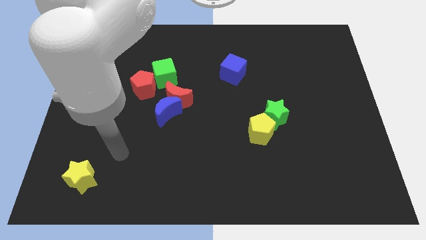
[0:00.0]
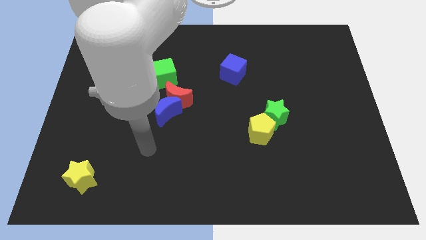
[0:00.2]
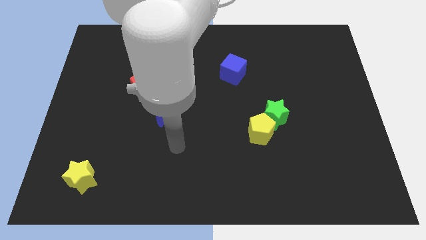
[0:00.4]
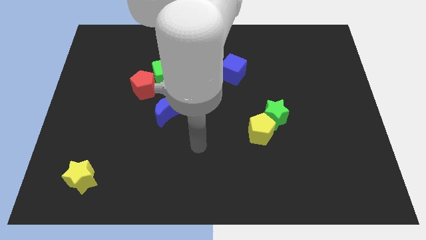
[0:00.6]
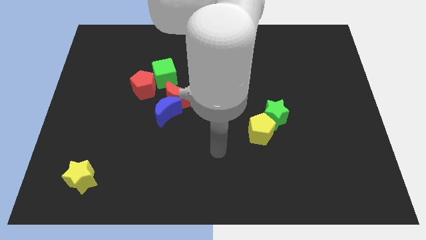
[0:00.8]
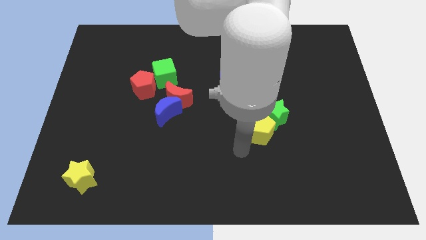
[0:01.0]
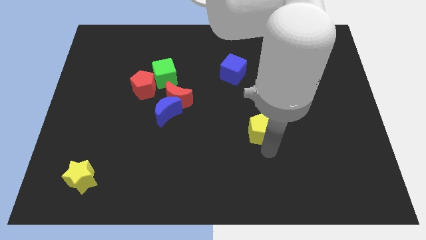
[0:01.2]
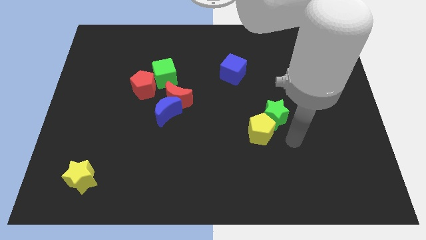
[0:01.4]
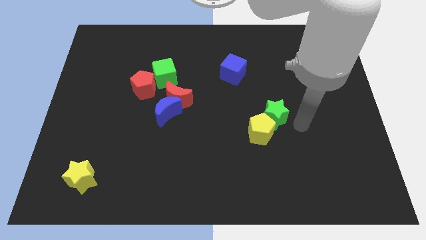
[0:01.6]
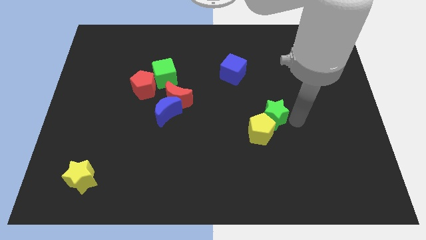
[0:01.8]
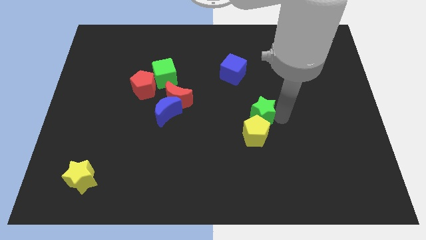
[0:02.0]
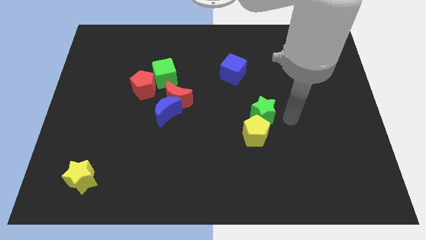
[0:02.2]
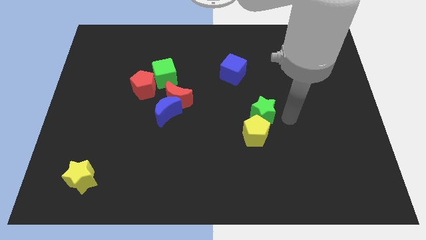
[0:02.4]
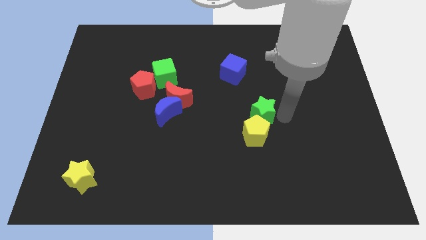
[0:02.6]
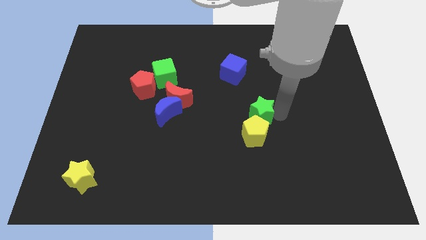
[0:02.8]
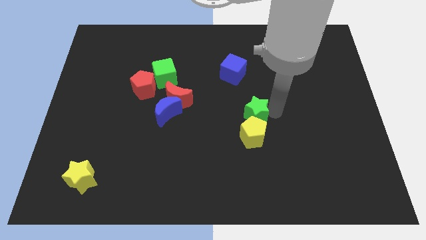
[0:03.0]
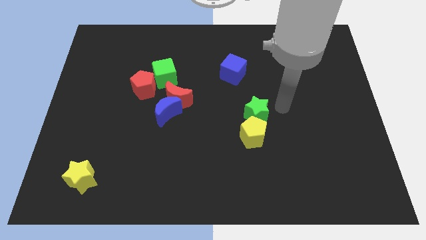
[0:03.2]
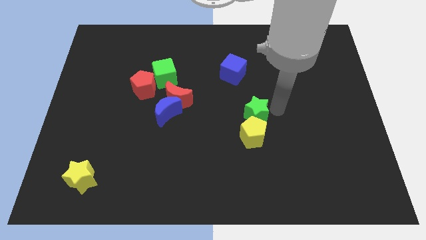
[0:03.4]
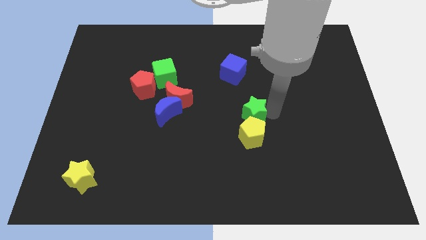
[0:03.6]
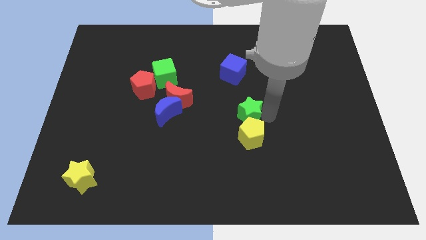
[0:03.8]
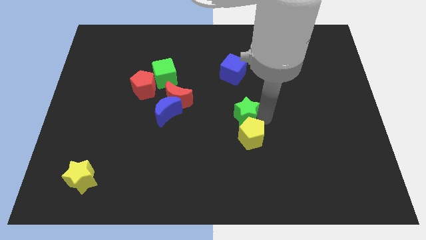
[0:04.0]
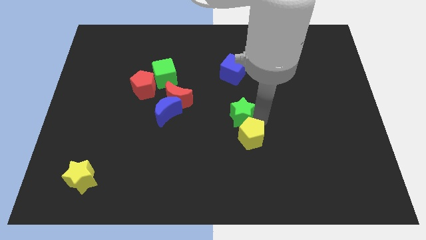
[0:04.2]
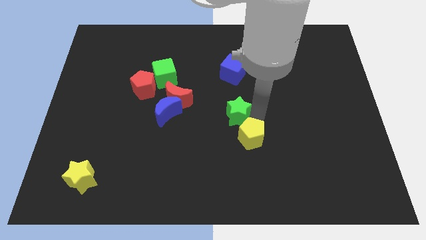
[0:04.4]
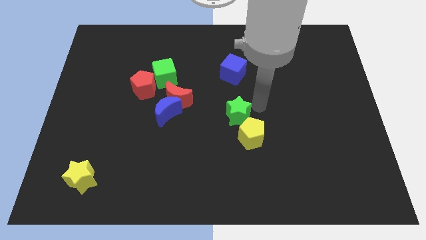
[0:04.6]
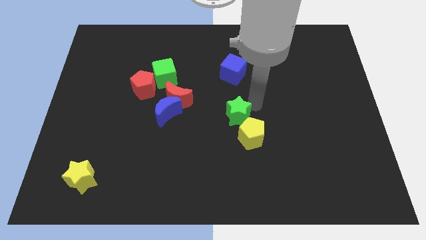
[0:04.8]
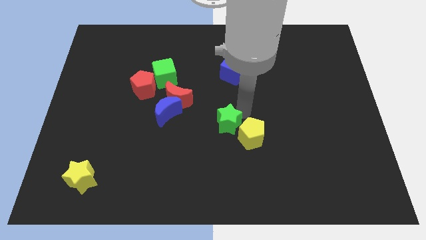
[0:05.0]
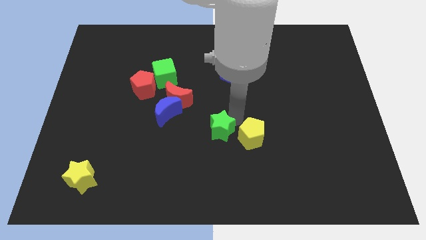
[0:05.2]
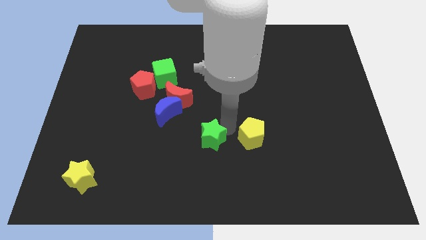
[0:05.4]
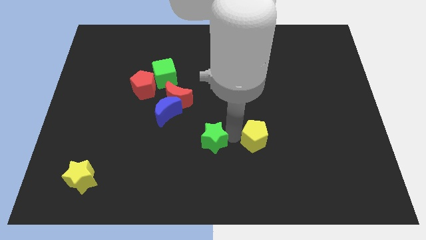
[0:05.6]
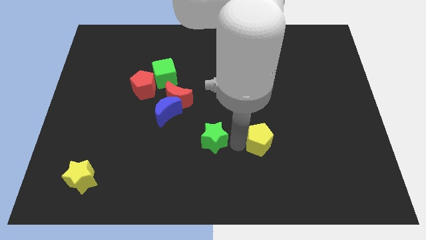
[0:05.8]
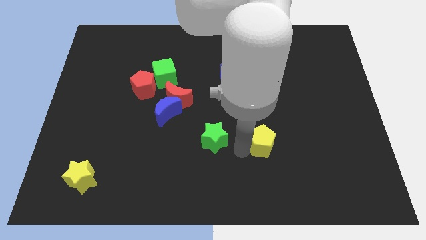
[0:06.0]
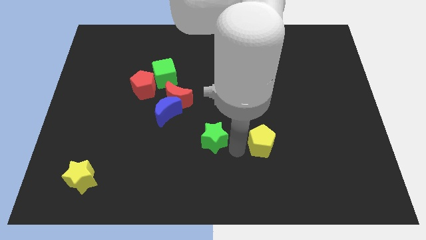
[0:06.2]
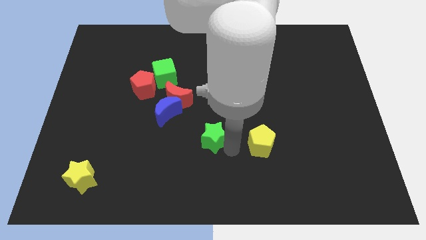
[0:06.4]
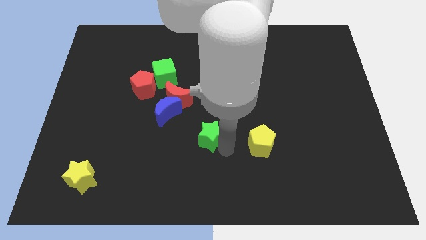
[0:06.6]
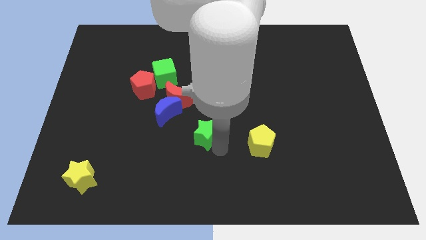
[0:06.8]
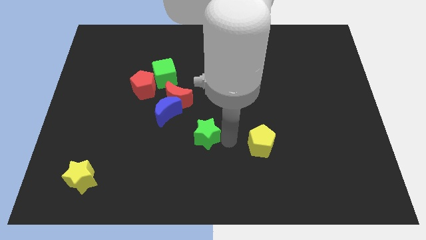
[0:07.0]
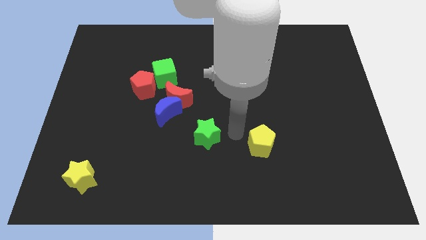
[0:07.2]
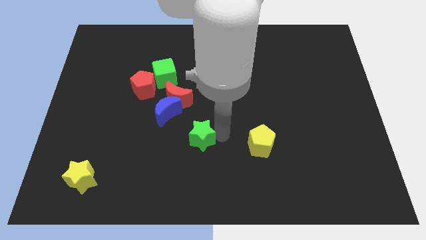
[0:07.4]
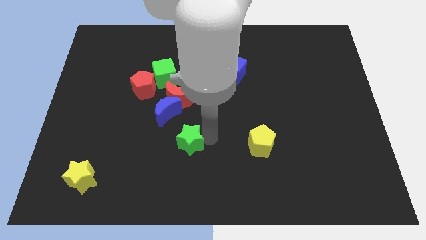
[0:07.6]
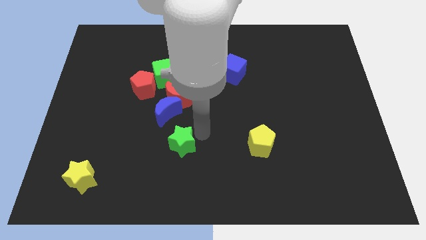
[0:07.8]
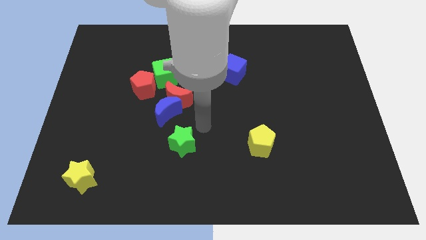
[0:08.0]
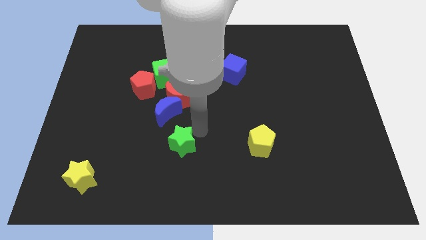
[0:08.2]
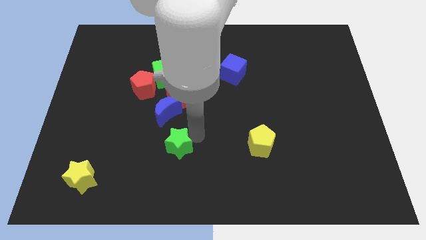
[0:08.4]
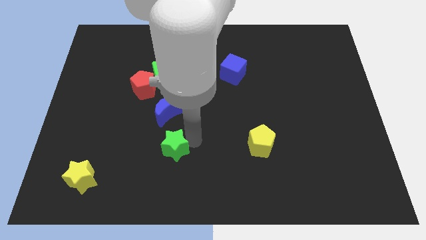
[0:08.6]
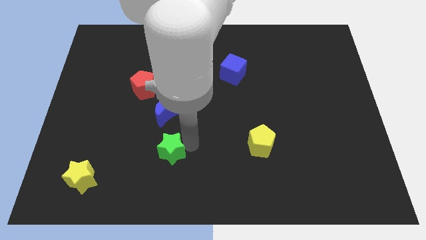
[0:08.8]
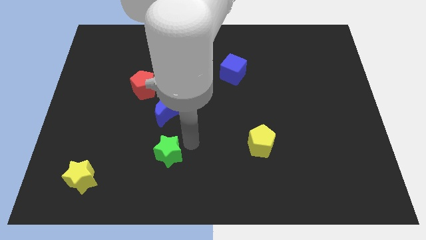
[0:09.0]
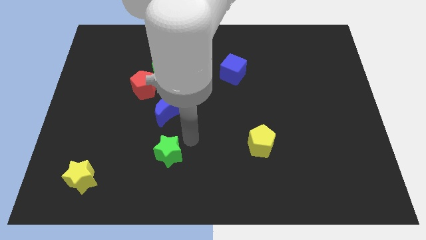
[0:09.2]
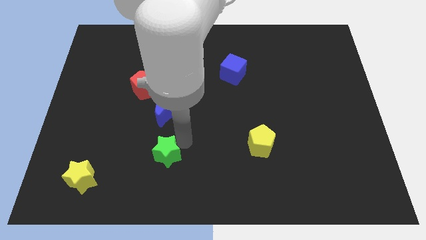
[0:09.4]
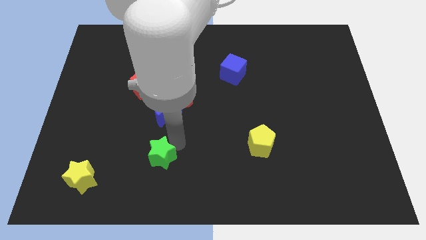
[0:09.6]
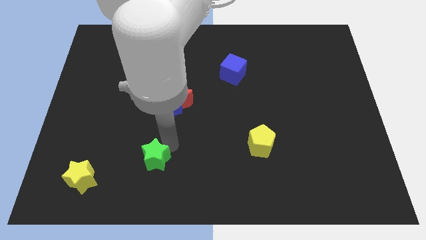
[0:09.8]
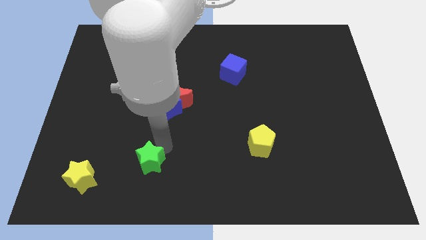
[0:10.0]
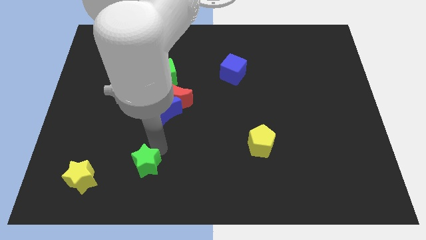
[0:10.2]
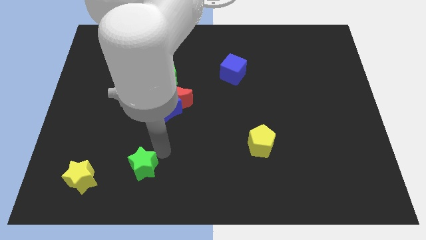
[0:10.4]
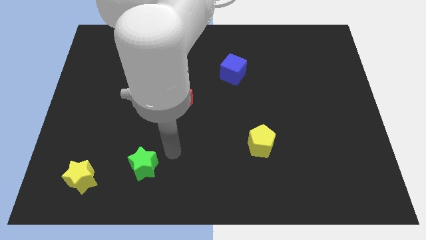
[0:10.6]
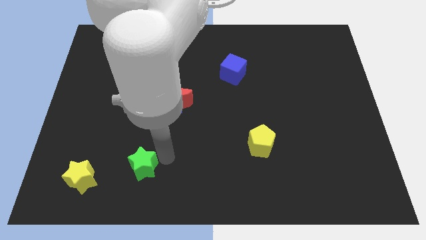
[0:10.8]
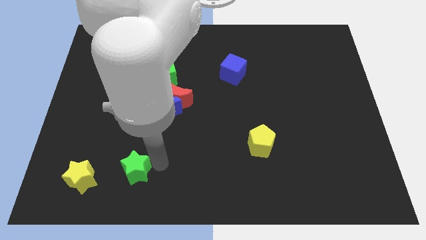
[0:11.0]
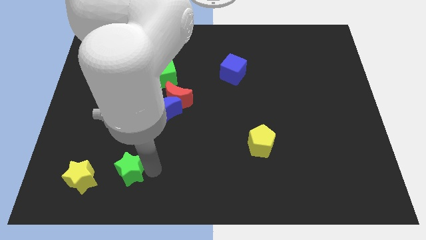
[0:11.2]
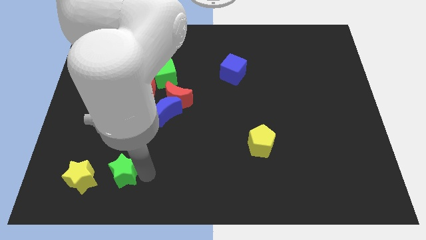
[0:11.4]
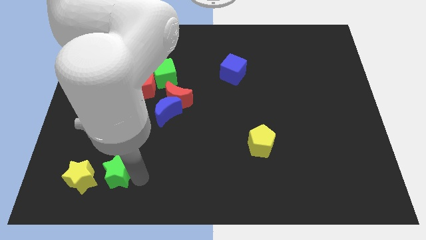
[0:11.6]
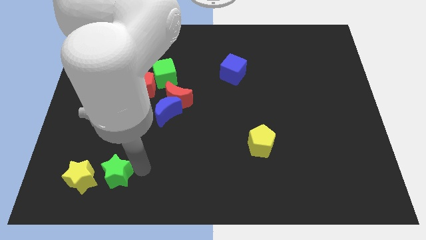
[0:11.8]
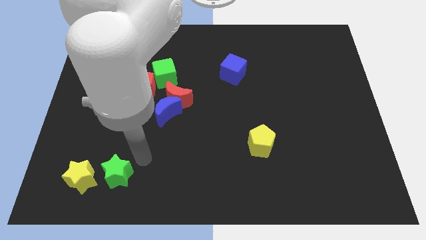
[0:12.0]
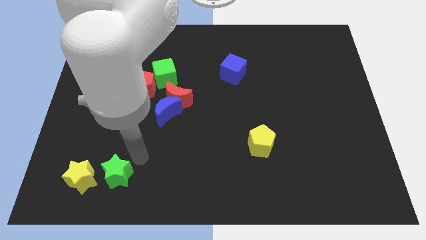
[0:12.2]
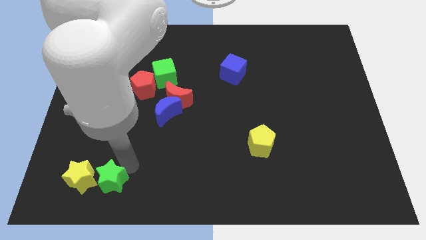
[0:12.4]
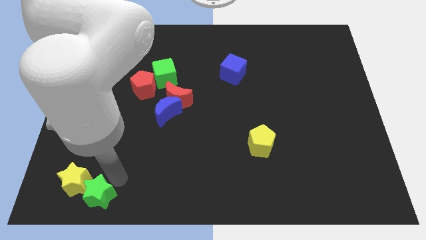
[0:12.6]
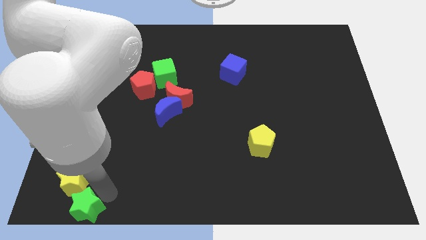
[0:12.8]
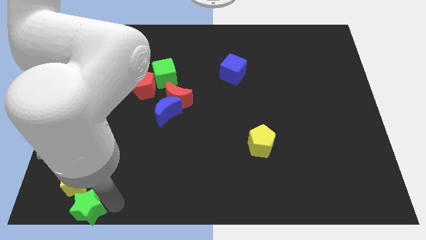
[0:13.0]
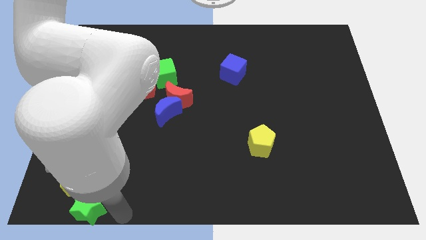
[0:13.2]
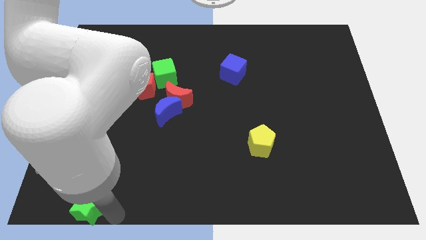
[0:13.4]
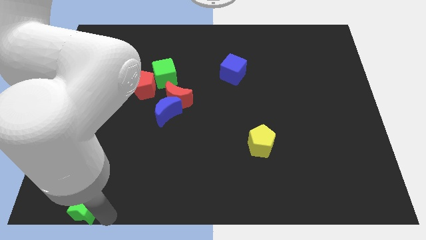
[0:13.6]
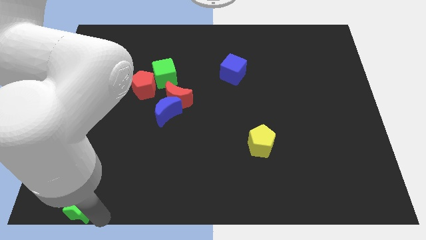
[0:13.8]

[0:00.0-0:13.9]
push the green star to the bottom left corner
